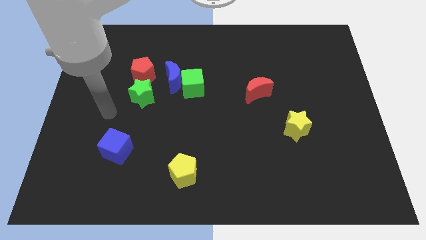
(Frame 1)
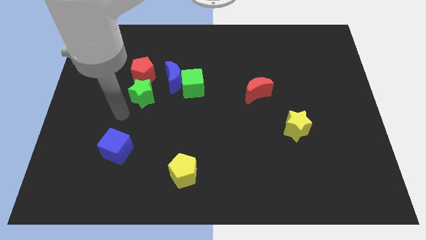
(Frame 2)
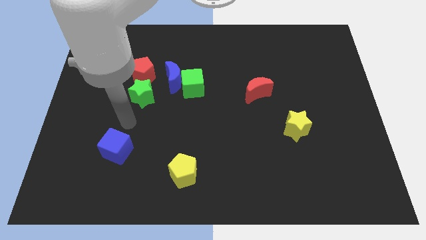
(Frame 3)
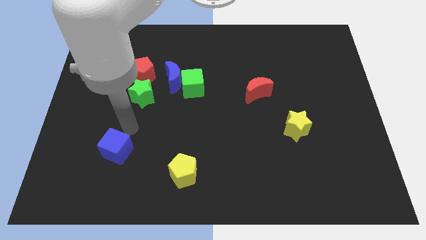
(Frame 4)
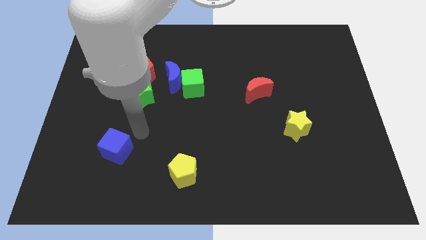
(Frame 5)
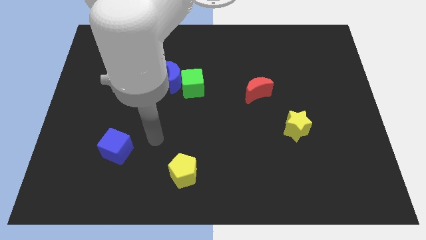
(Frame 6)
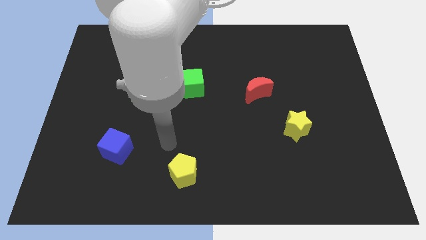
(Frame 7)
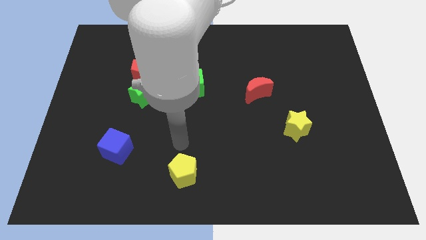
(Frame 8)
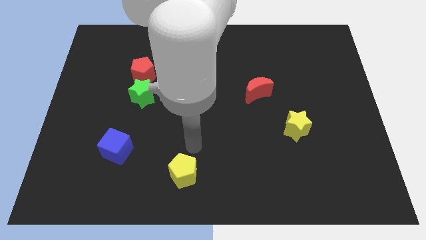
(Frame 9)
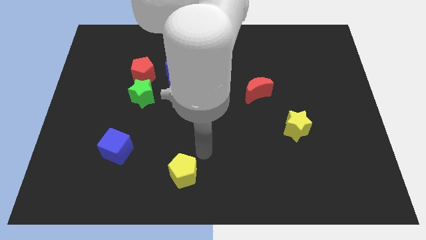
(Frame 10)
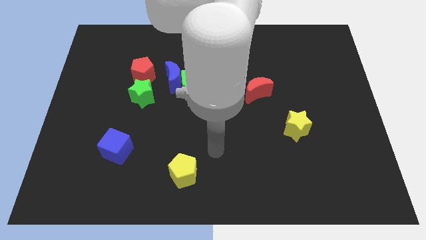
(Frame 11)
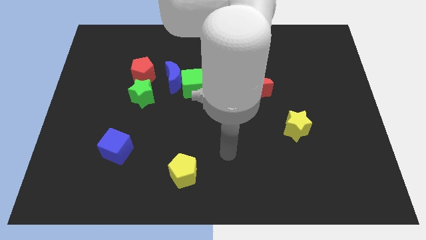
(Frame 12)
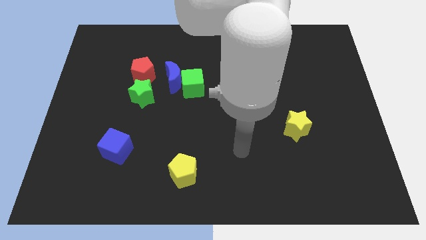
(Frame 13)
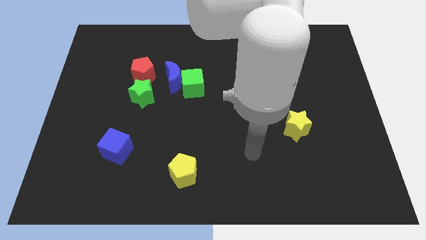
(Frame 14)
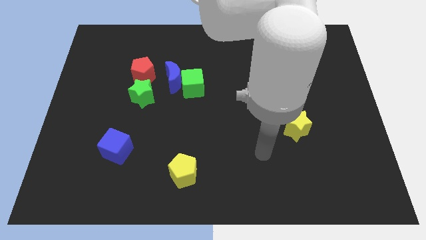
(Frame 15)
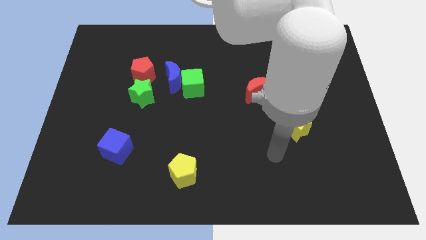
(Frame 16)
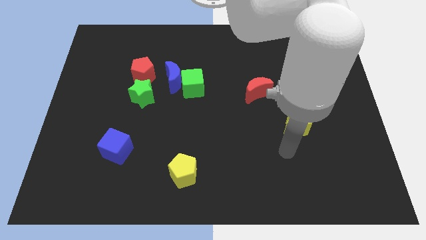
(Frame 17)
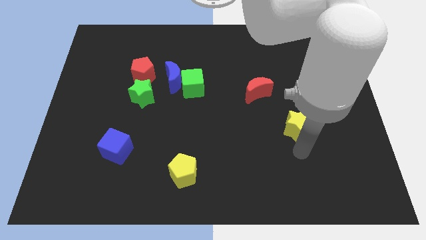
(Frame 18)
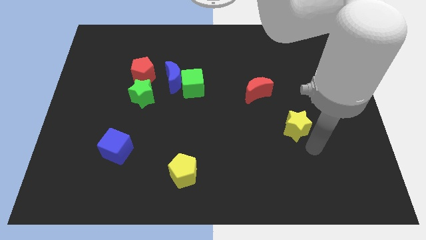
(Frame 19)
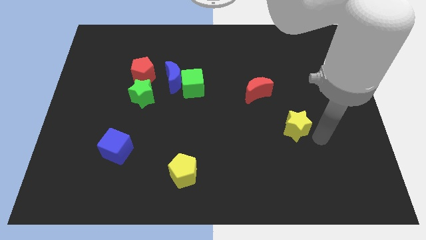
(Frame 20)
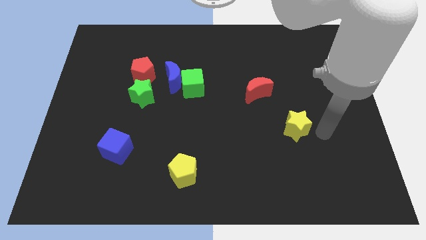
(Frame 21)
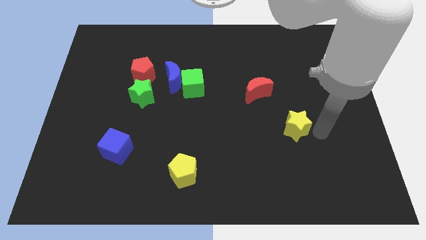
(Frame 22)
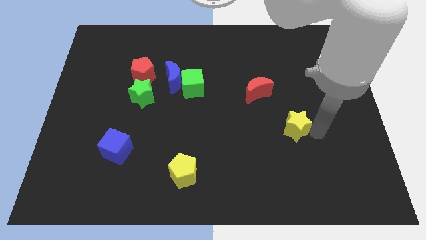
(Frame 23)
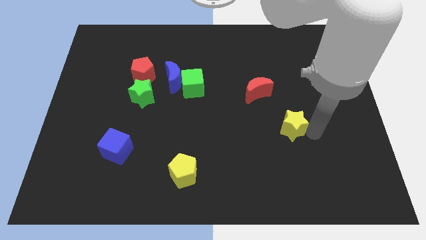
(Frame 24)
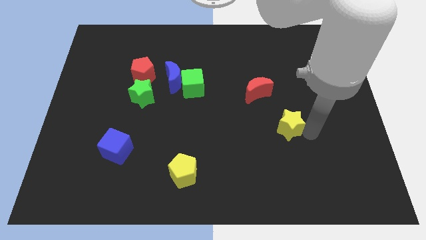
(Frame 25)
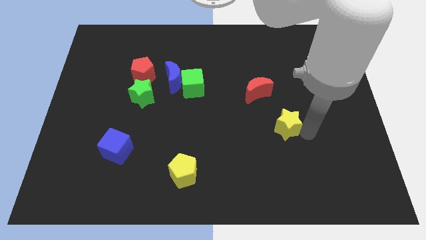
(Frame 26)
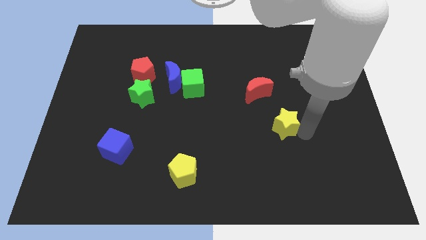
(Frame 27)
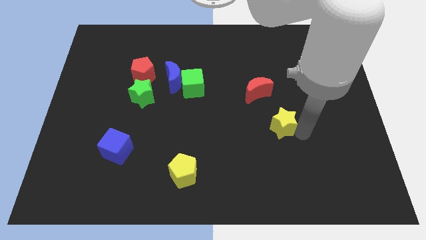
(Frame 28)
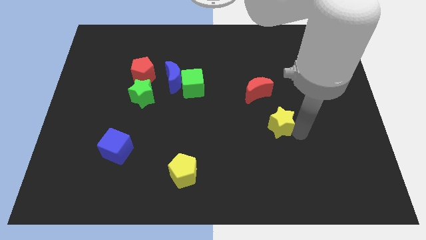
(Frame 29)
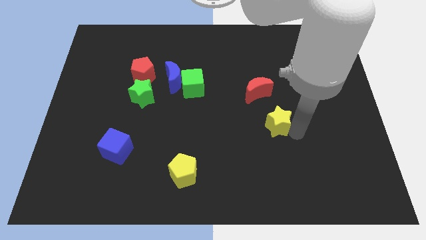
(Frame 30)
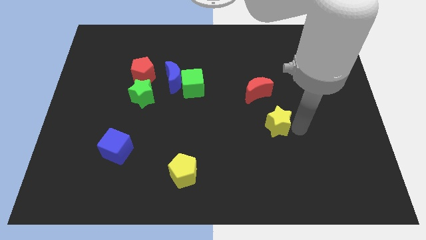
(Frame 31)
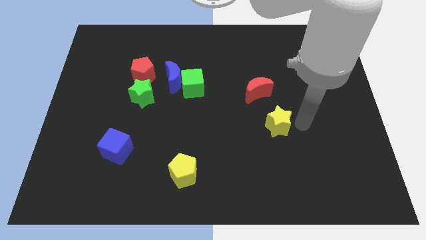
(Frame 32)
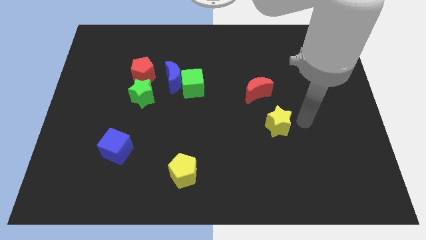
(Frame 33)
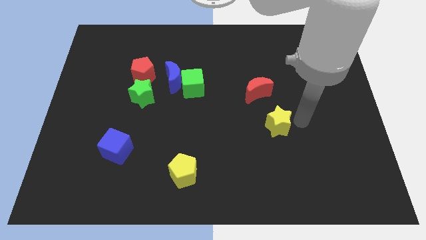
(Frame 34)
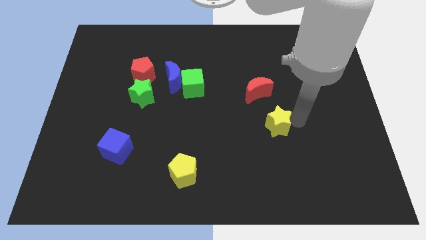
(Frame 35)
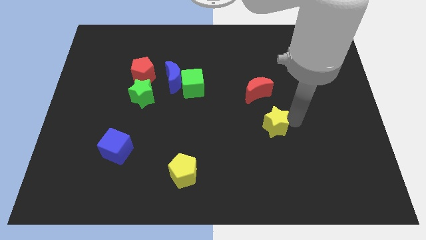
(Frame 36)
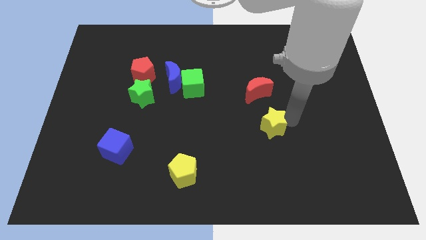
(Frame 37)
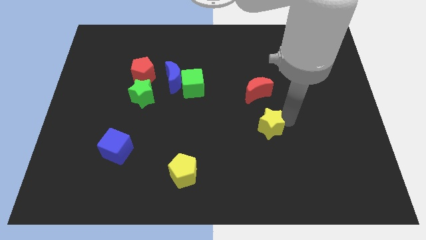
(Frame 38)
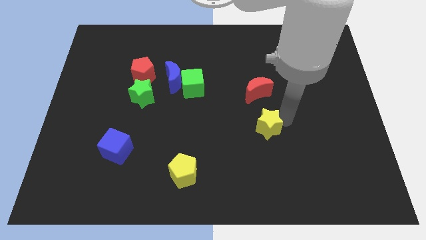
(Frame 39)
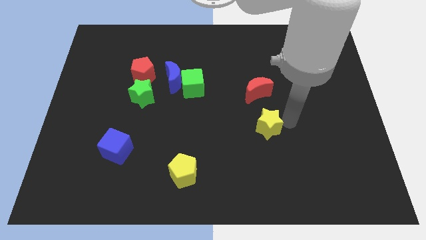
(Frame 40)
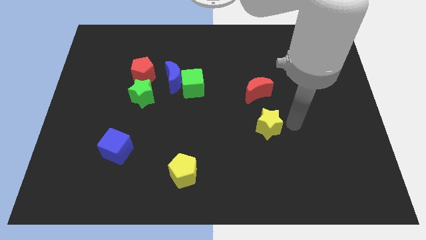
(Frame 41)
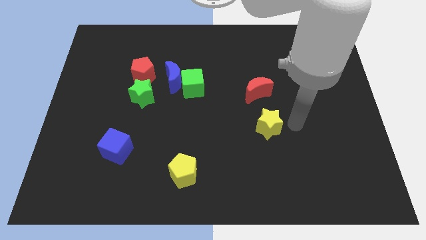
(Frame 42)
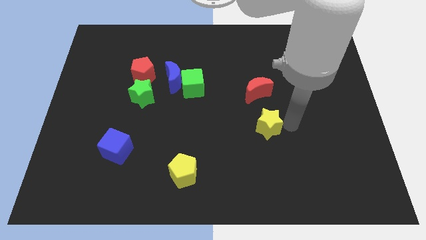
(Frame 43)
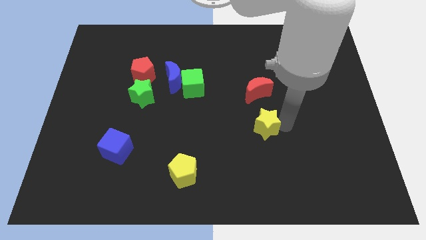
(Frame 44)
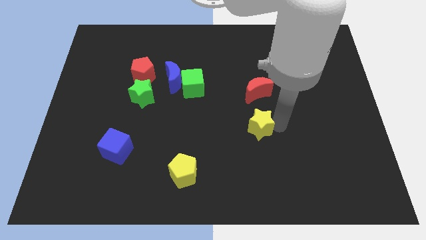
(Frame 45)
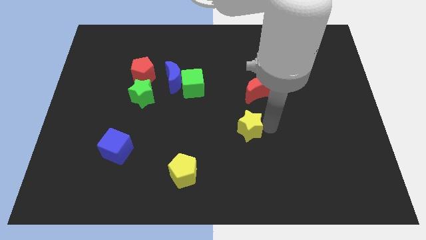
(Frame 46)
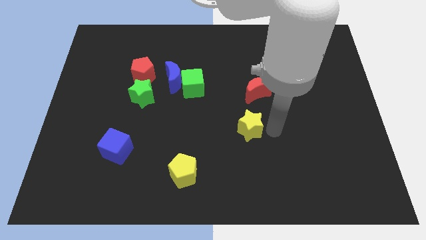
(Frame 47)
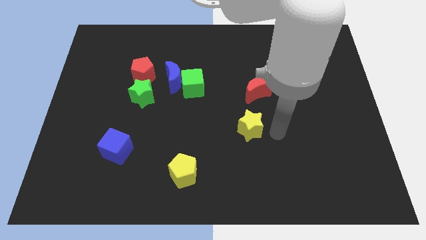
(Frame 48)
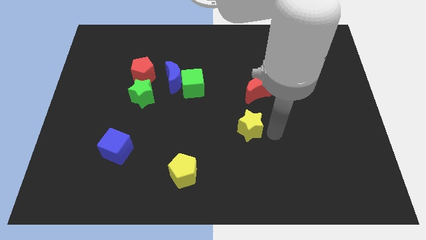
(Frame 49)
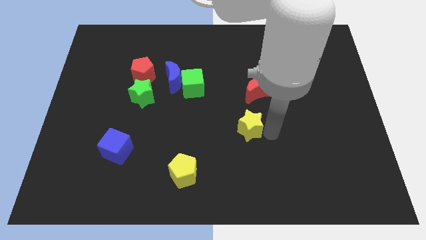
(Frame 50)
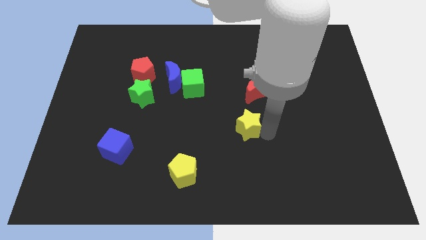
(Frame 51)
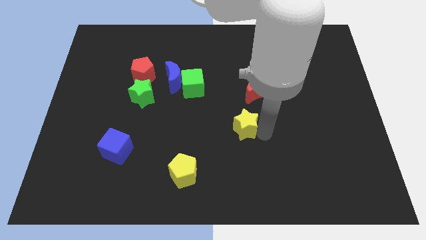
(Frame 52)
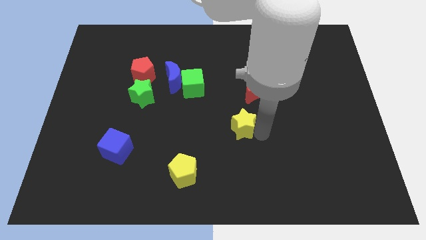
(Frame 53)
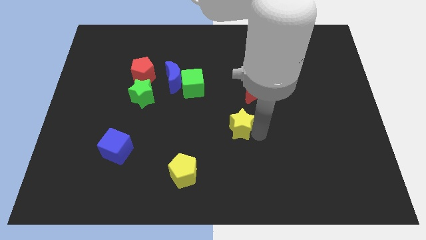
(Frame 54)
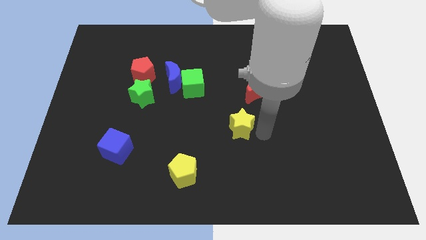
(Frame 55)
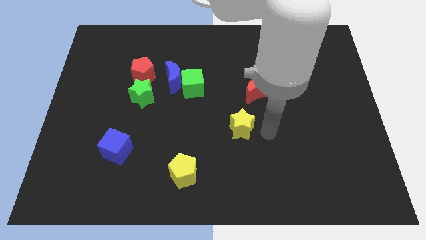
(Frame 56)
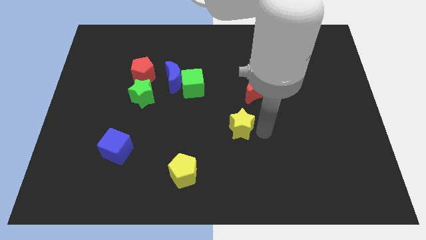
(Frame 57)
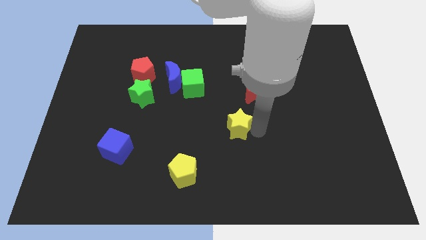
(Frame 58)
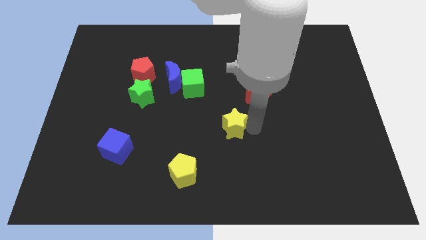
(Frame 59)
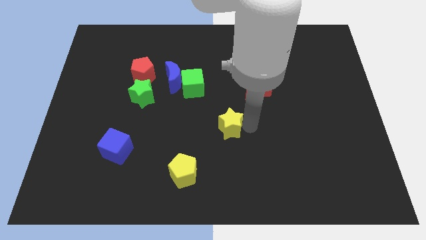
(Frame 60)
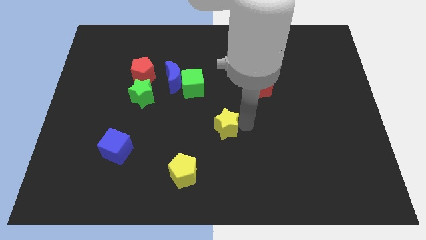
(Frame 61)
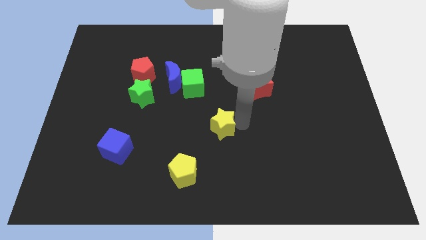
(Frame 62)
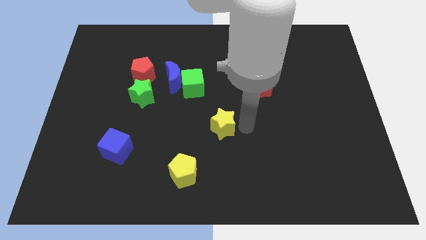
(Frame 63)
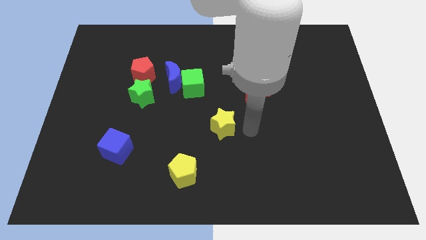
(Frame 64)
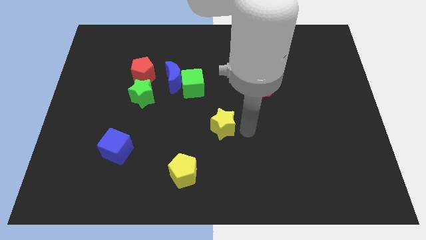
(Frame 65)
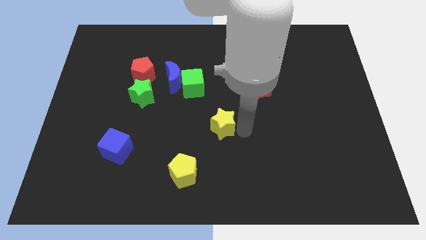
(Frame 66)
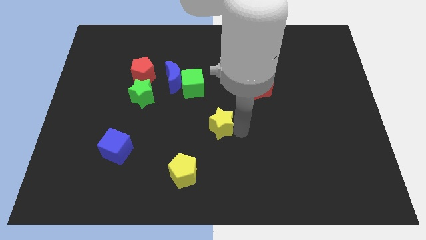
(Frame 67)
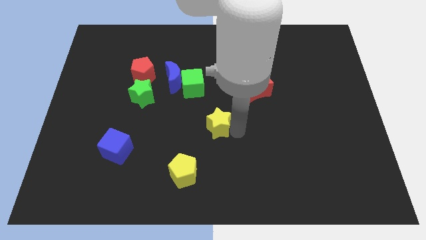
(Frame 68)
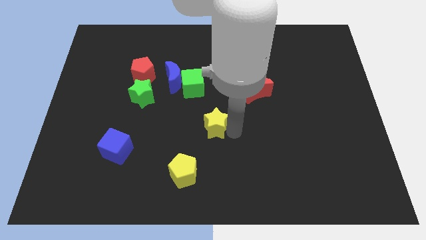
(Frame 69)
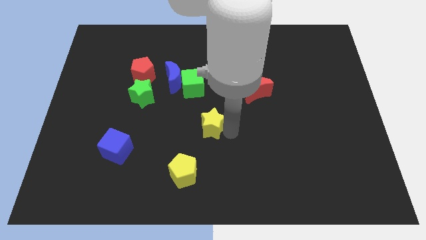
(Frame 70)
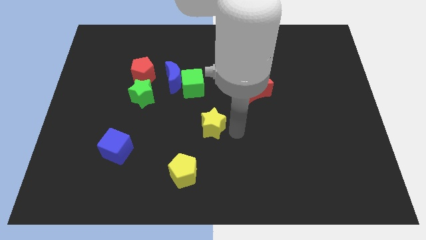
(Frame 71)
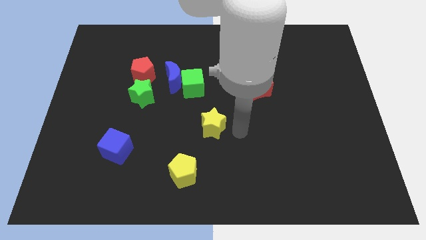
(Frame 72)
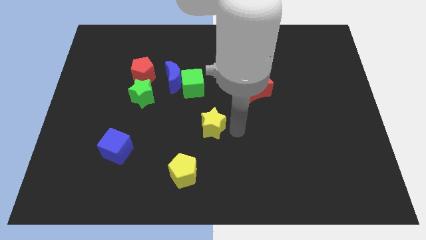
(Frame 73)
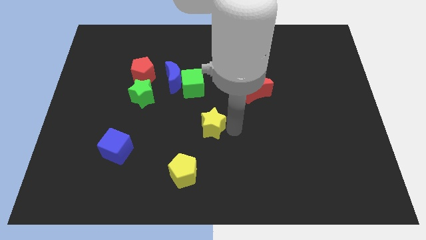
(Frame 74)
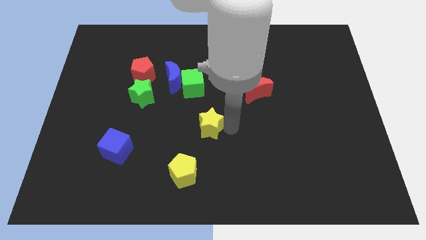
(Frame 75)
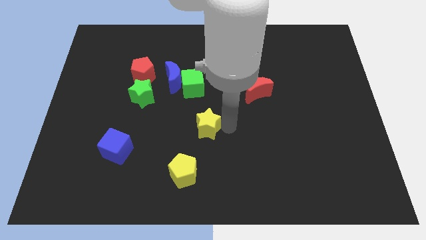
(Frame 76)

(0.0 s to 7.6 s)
slide the yellow star to the left

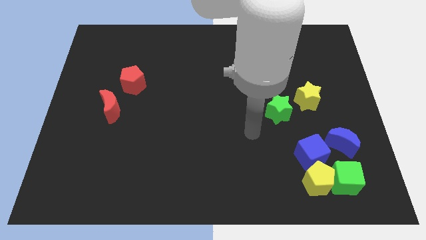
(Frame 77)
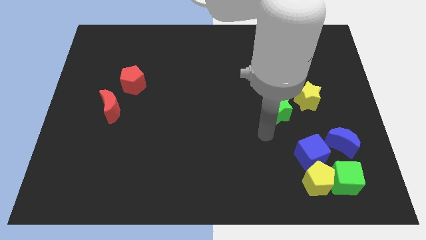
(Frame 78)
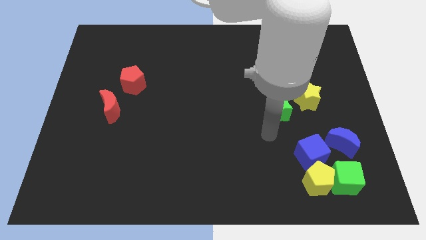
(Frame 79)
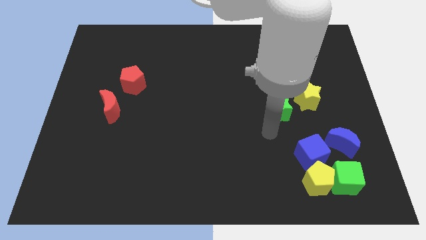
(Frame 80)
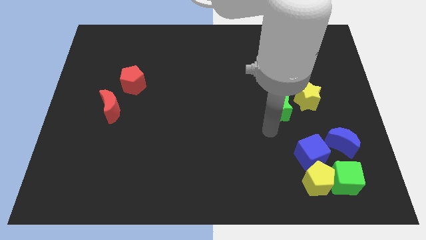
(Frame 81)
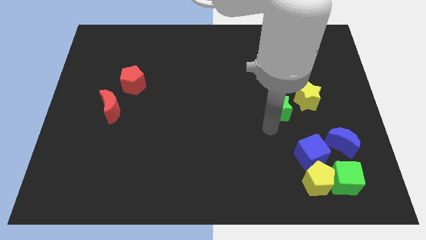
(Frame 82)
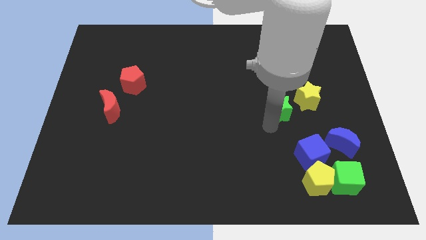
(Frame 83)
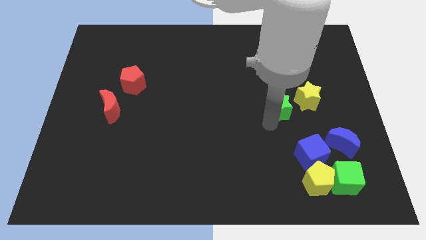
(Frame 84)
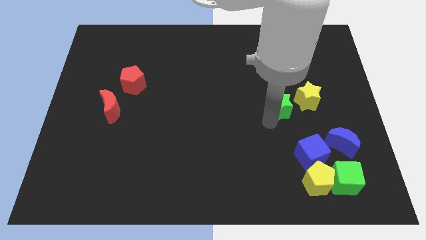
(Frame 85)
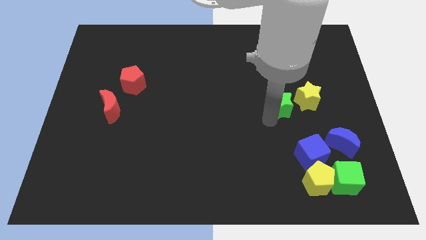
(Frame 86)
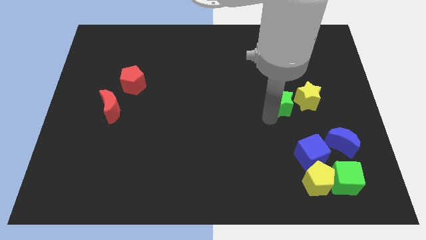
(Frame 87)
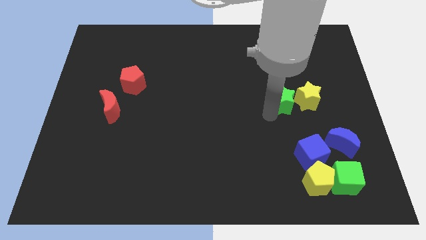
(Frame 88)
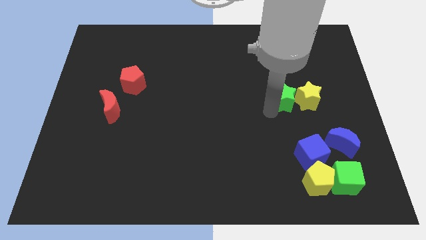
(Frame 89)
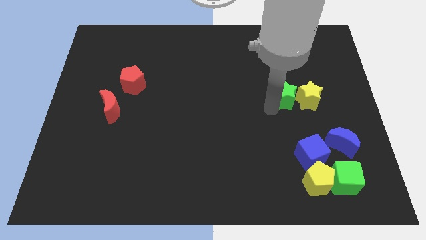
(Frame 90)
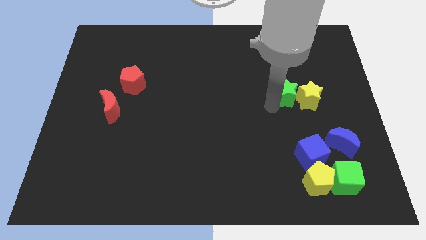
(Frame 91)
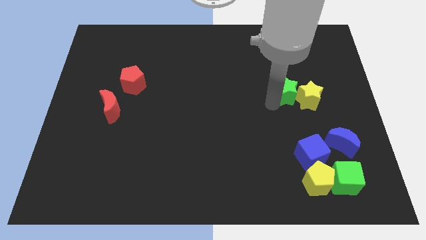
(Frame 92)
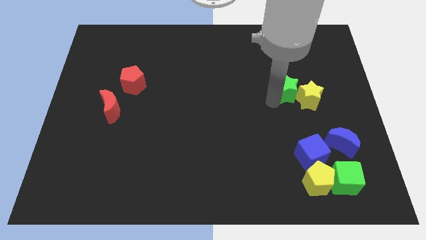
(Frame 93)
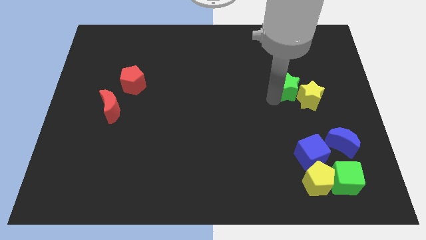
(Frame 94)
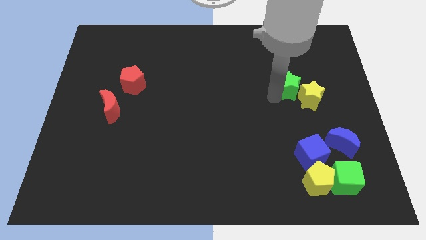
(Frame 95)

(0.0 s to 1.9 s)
push the green star upwards and right diagonally a little bit
